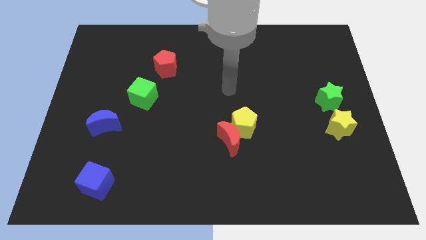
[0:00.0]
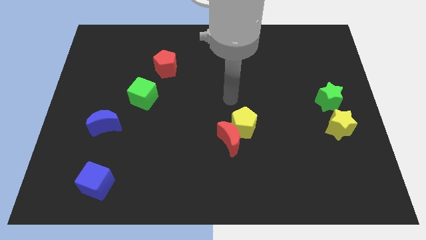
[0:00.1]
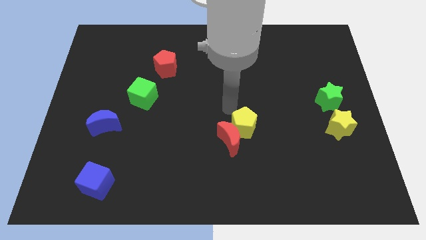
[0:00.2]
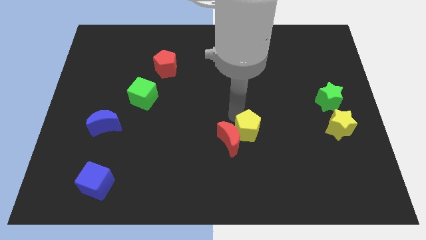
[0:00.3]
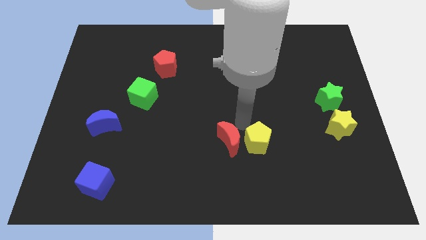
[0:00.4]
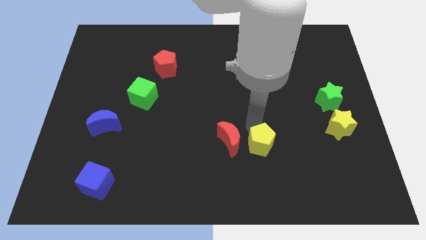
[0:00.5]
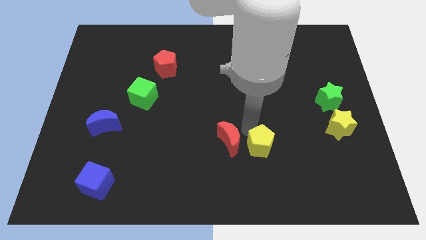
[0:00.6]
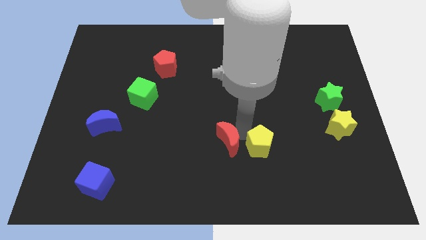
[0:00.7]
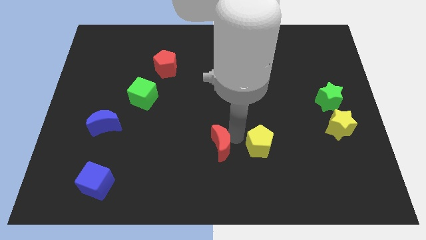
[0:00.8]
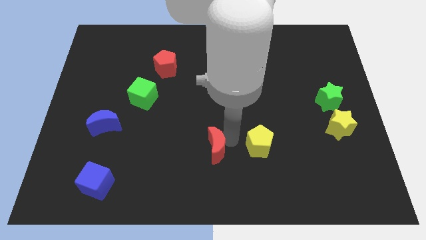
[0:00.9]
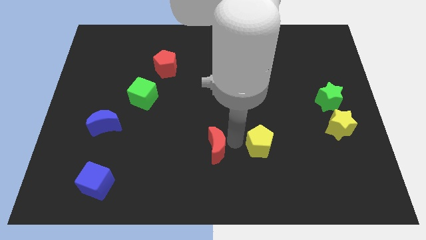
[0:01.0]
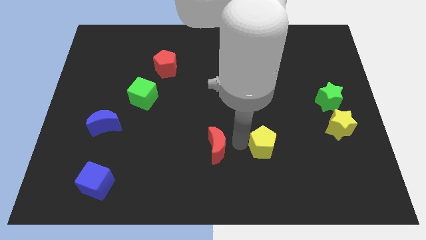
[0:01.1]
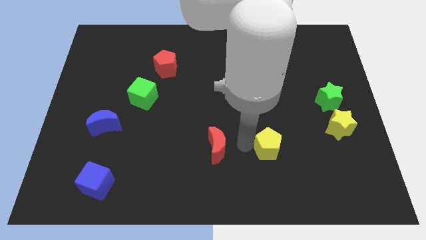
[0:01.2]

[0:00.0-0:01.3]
pull the red moon apart from the yellow pentagon

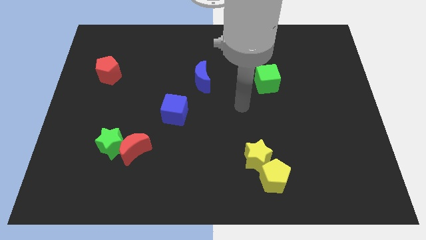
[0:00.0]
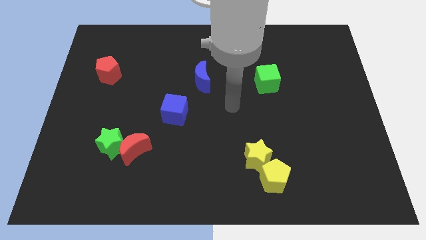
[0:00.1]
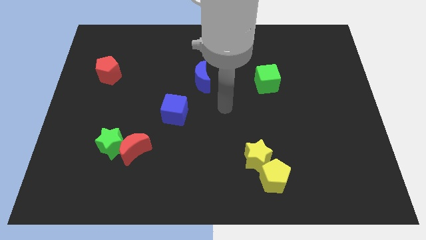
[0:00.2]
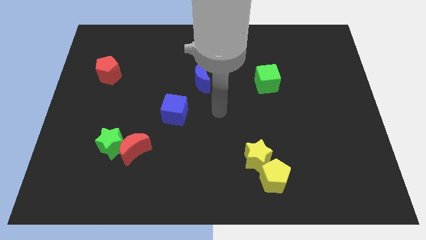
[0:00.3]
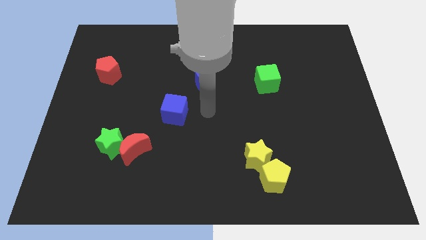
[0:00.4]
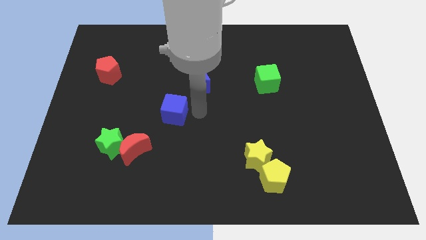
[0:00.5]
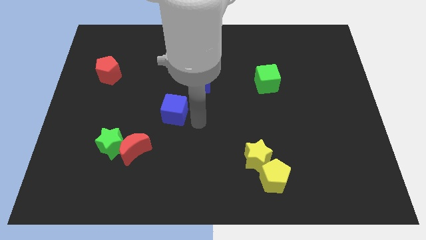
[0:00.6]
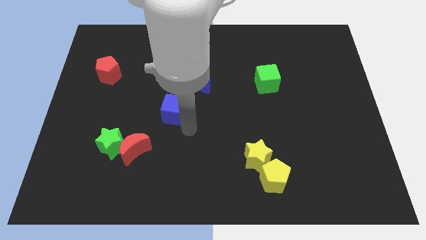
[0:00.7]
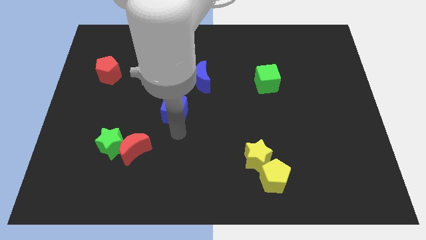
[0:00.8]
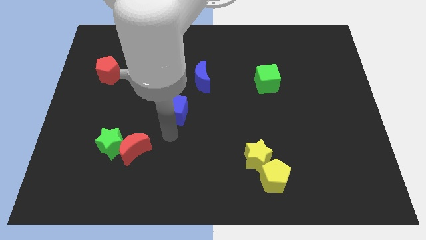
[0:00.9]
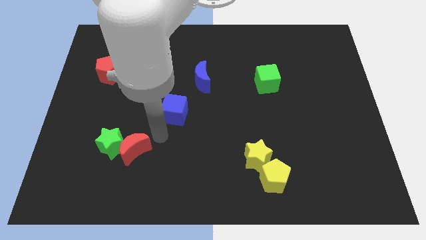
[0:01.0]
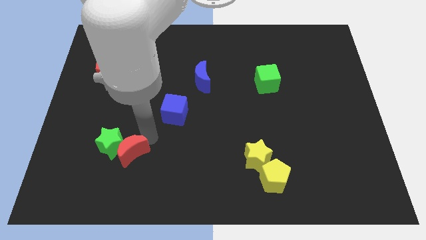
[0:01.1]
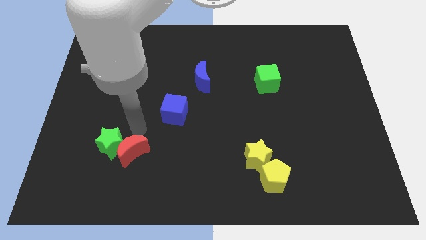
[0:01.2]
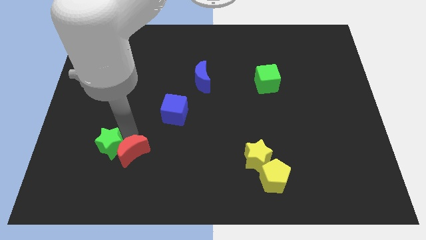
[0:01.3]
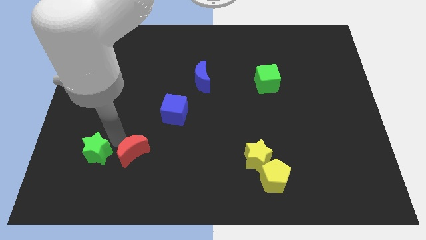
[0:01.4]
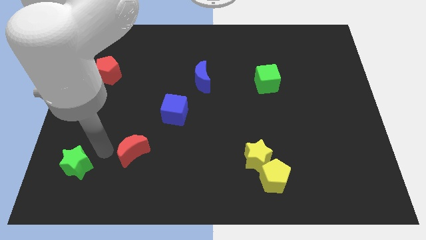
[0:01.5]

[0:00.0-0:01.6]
separate the red moon from the green star

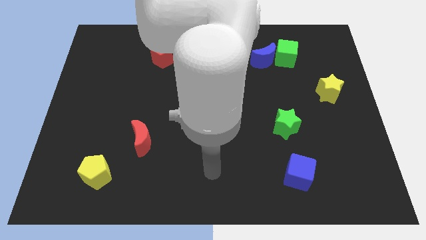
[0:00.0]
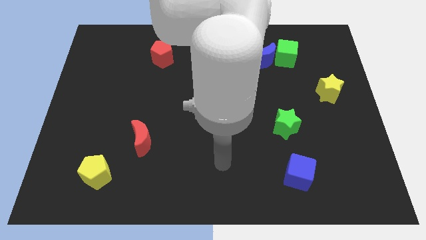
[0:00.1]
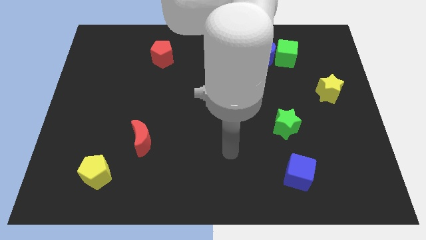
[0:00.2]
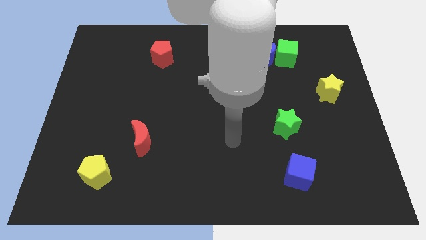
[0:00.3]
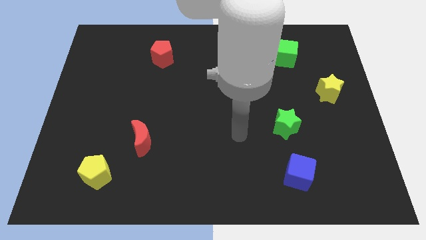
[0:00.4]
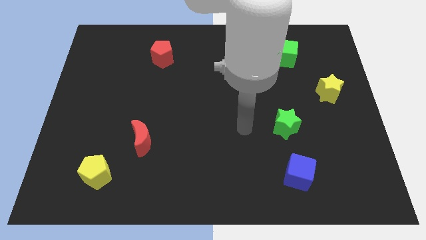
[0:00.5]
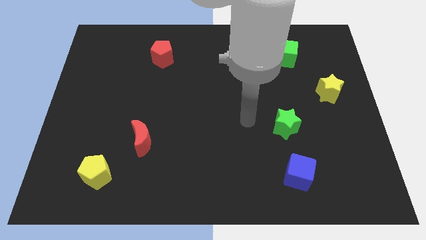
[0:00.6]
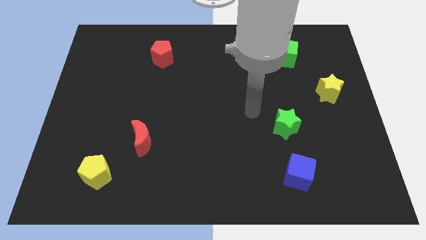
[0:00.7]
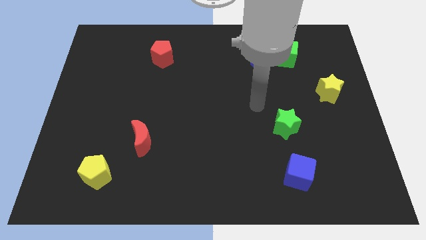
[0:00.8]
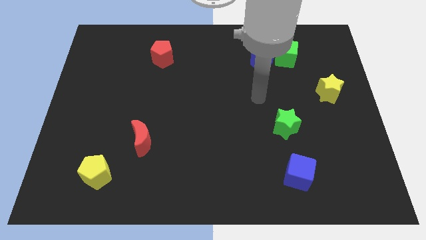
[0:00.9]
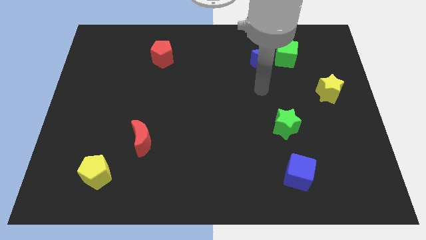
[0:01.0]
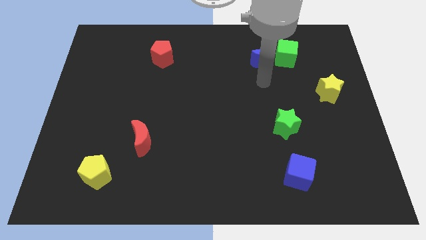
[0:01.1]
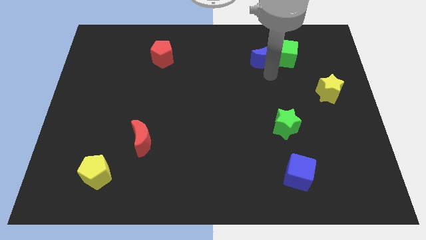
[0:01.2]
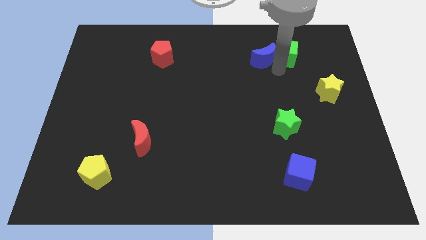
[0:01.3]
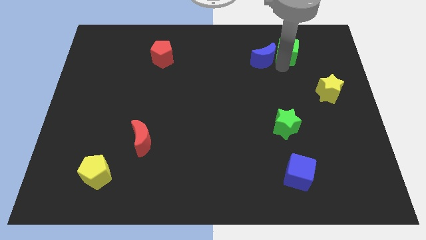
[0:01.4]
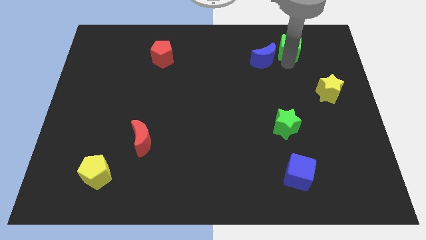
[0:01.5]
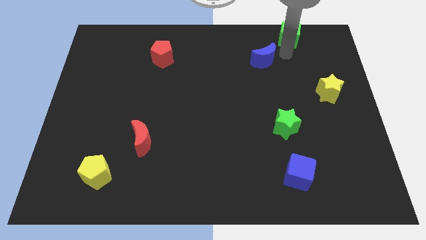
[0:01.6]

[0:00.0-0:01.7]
separate the blue moon from the green cube

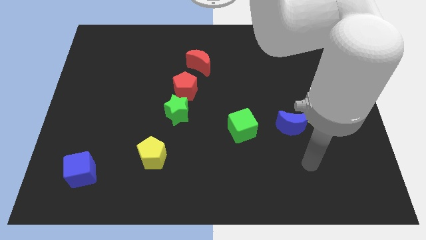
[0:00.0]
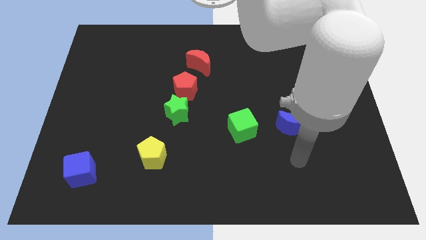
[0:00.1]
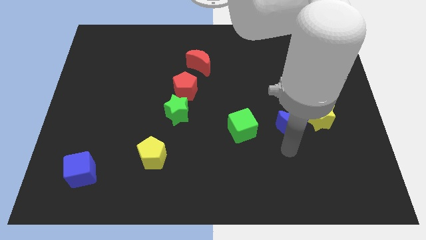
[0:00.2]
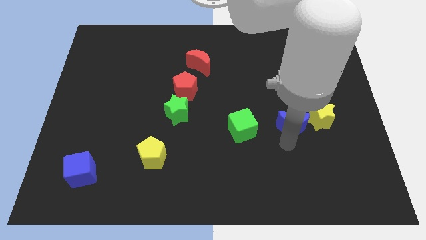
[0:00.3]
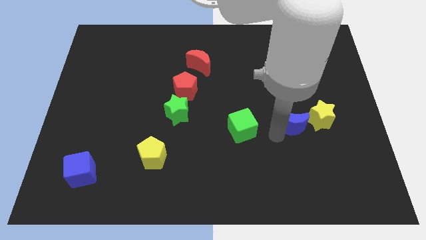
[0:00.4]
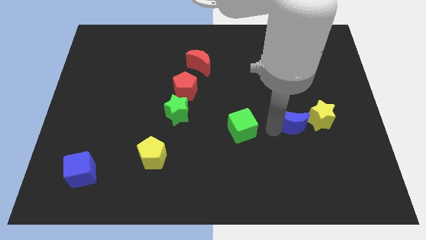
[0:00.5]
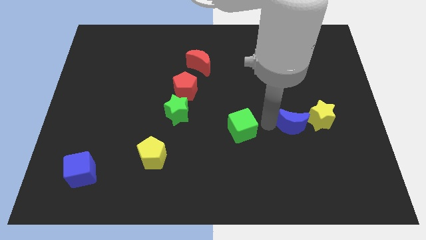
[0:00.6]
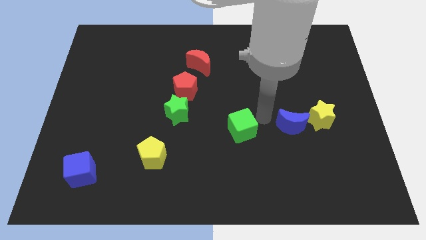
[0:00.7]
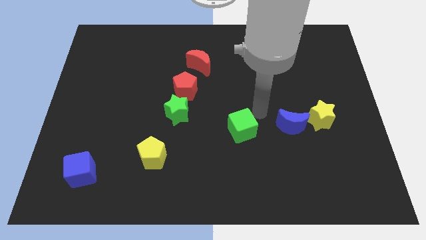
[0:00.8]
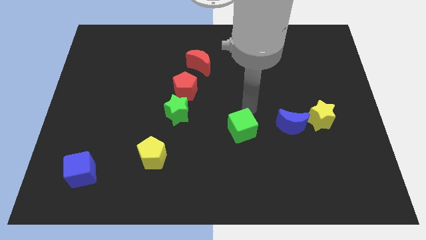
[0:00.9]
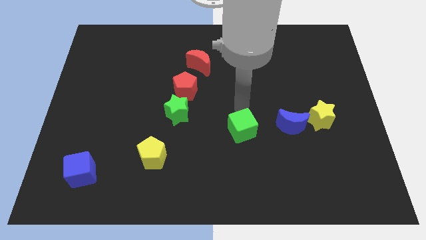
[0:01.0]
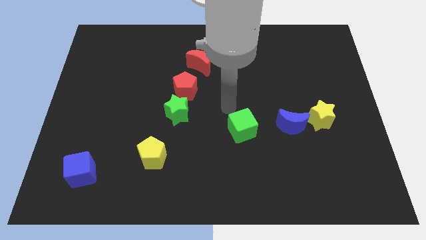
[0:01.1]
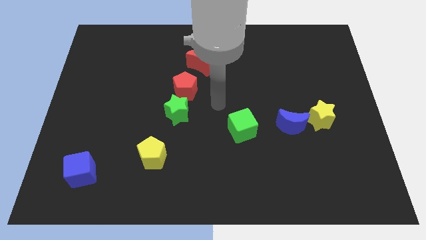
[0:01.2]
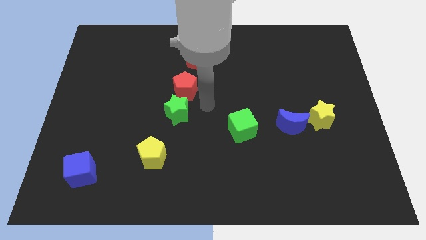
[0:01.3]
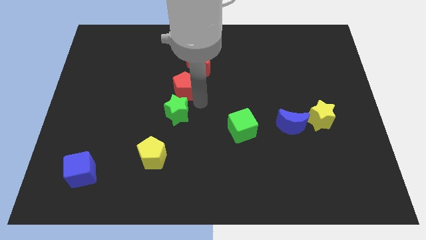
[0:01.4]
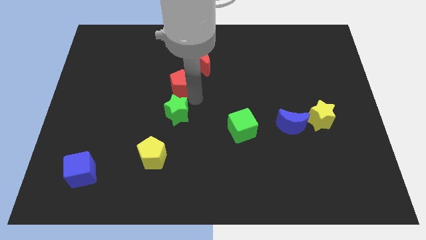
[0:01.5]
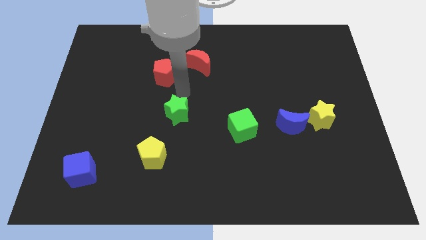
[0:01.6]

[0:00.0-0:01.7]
pull the green star apart from the red pentagon

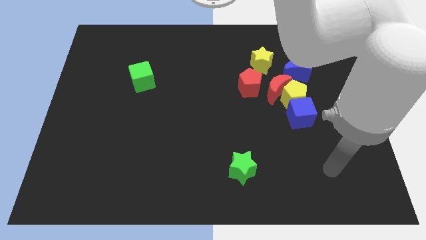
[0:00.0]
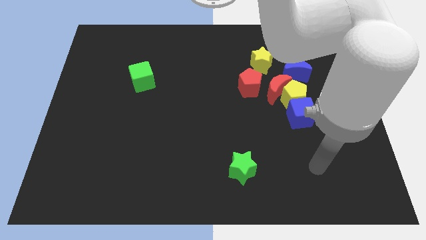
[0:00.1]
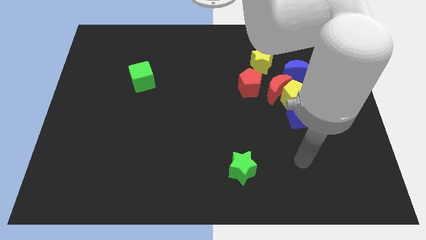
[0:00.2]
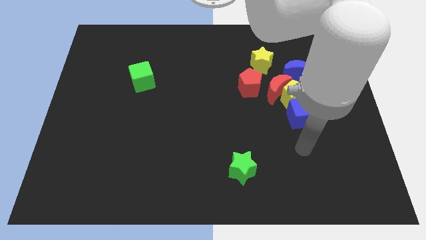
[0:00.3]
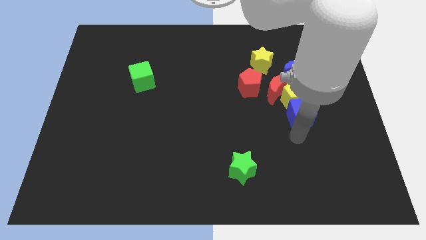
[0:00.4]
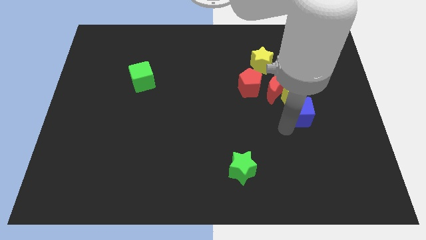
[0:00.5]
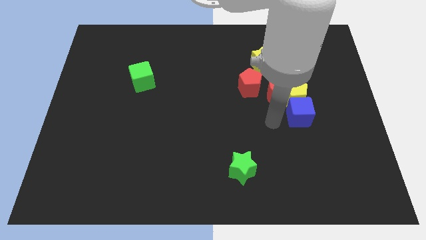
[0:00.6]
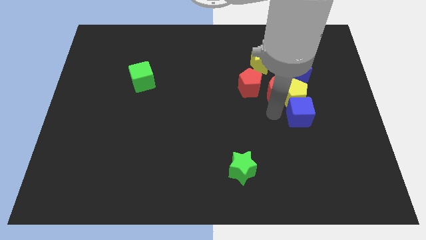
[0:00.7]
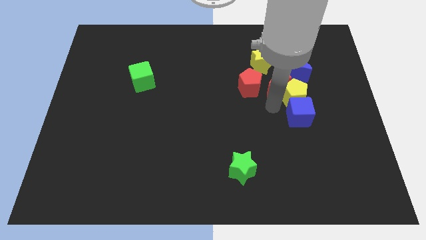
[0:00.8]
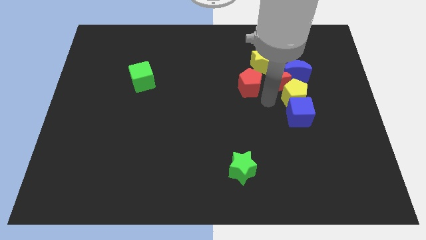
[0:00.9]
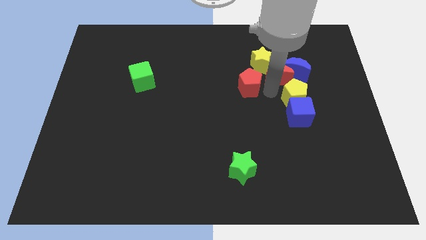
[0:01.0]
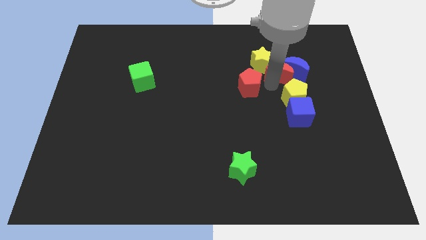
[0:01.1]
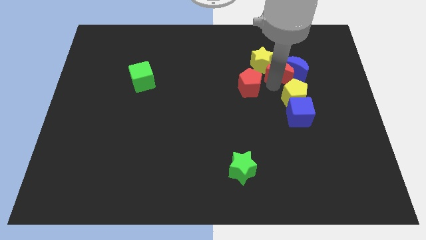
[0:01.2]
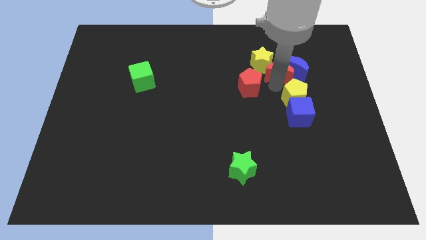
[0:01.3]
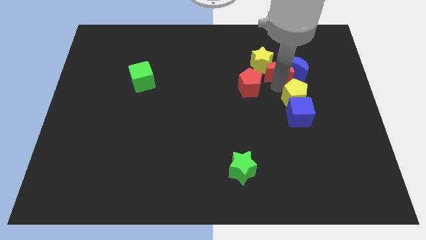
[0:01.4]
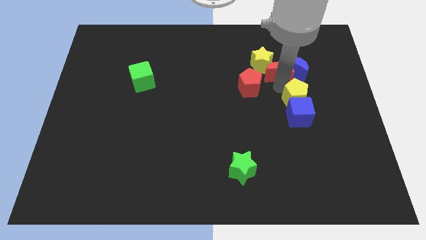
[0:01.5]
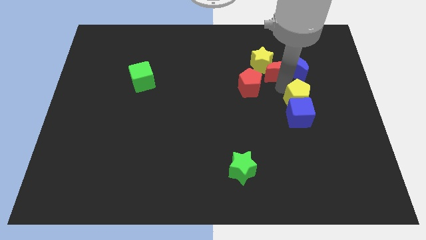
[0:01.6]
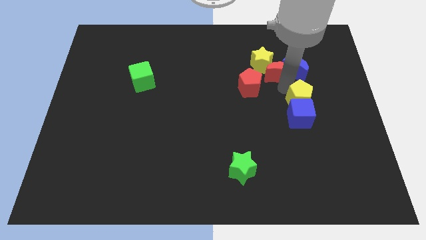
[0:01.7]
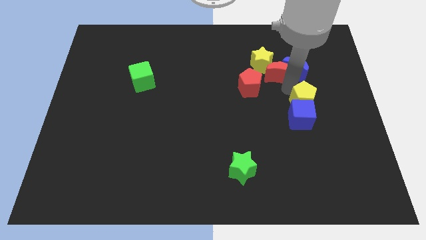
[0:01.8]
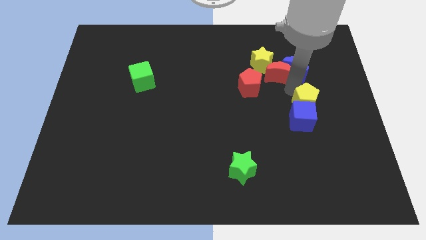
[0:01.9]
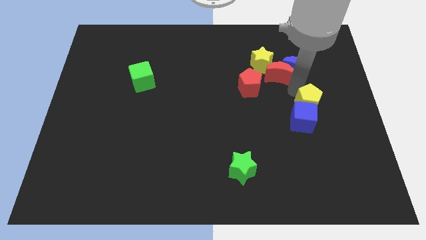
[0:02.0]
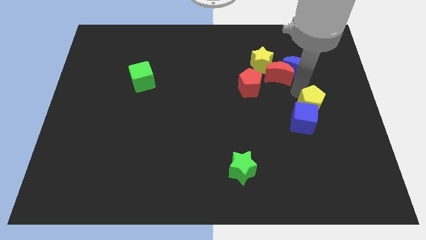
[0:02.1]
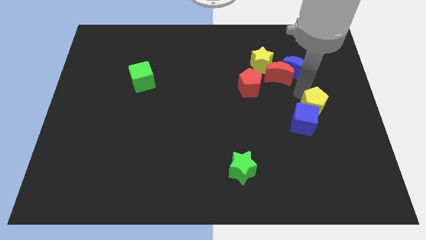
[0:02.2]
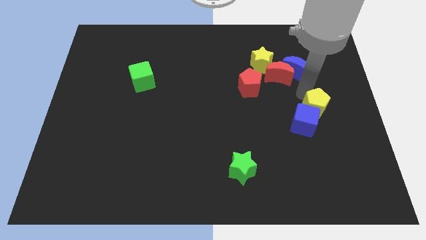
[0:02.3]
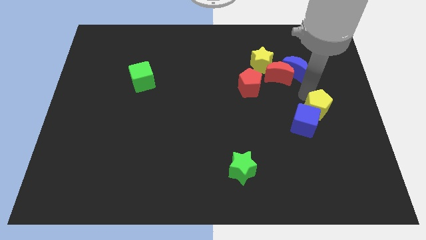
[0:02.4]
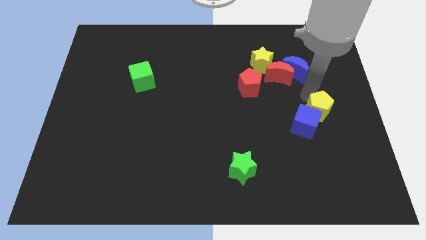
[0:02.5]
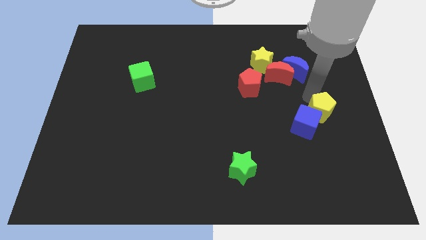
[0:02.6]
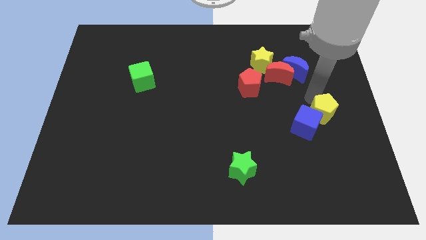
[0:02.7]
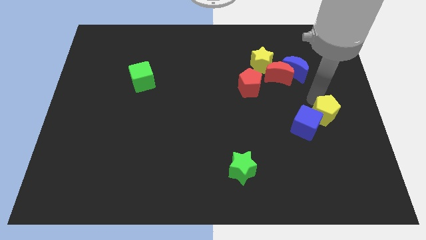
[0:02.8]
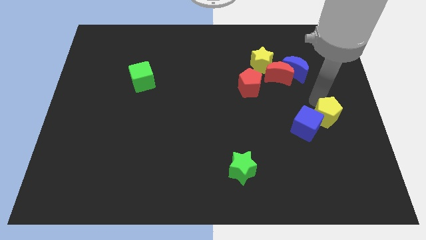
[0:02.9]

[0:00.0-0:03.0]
separate the yellow pentagon from the red moon, blue cube, and blue moon

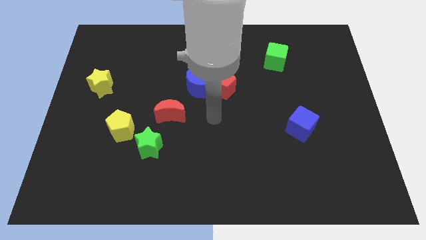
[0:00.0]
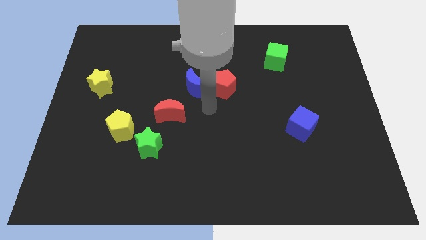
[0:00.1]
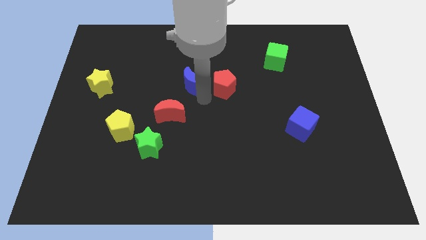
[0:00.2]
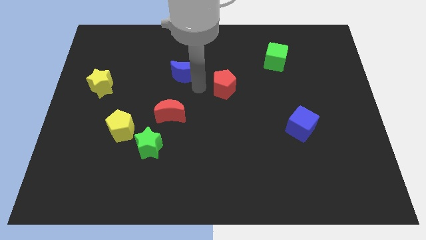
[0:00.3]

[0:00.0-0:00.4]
move the red pentagon away from the blue moon
